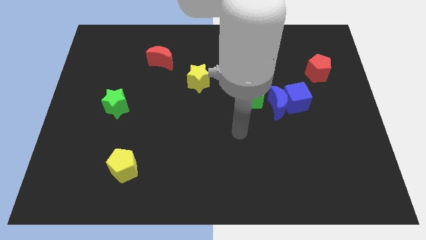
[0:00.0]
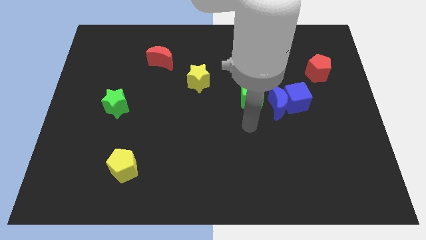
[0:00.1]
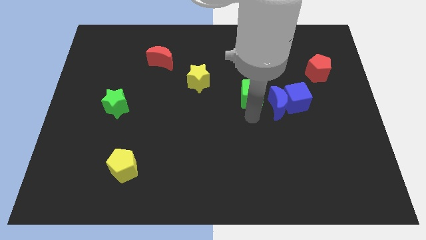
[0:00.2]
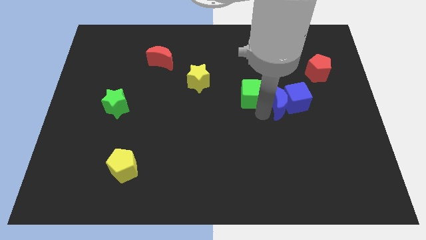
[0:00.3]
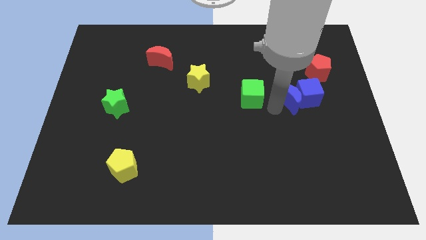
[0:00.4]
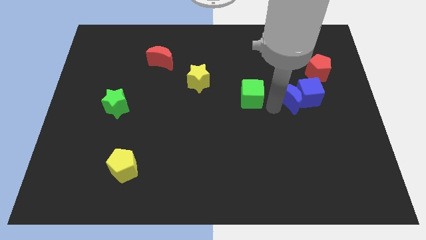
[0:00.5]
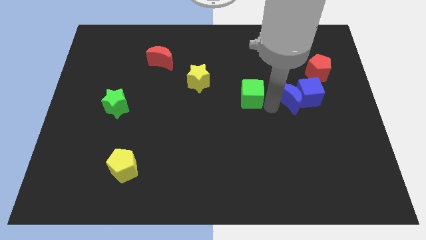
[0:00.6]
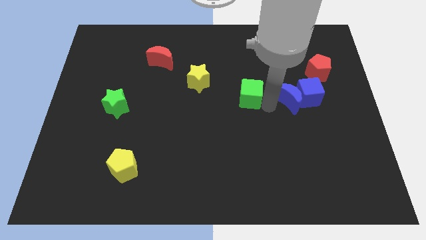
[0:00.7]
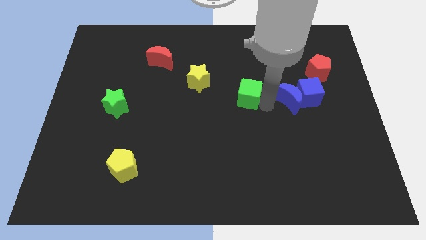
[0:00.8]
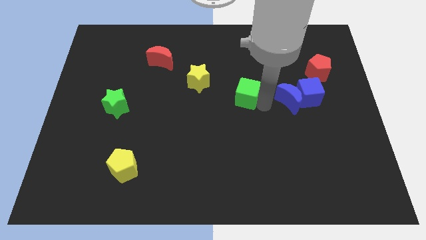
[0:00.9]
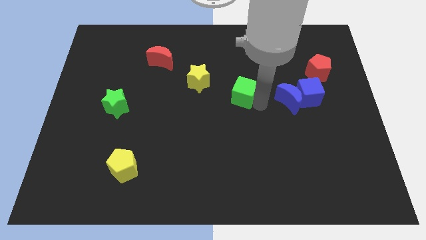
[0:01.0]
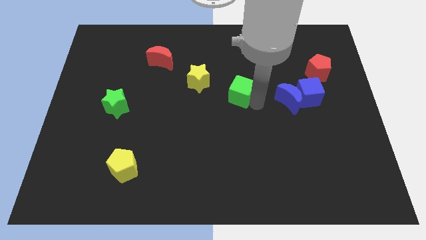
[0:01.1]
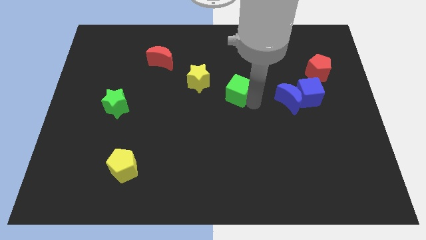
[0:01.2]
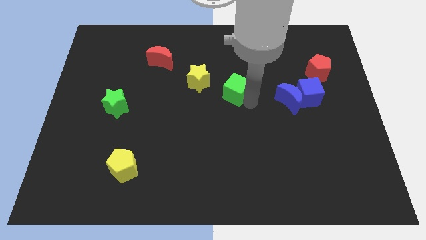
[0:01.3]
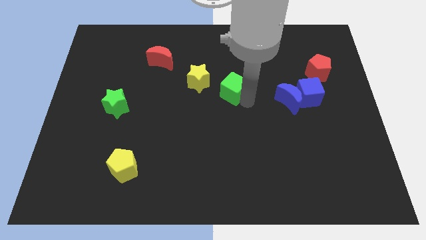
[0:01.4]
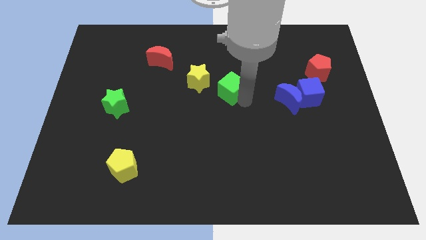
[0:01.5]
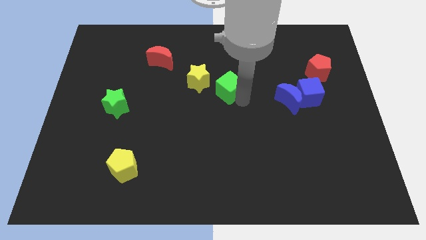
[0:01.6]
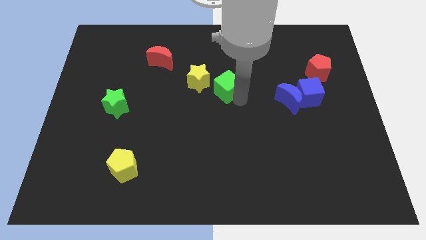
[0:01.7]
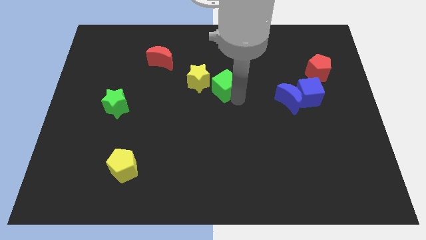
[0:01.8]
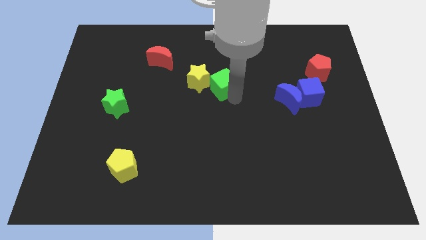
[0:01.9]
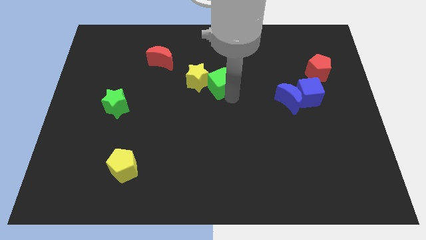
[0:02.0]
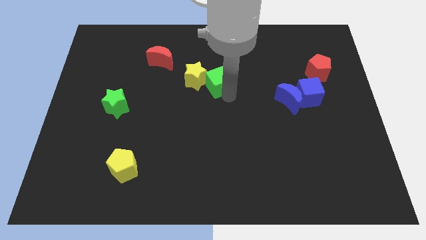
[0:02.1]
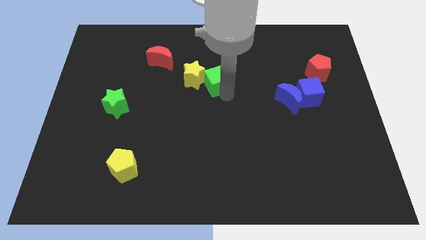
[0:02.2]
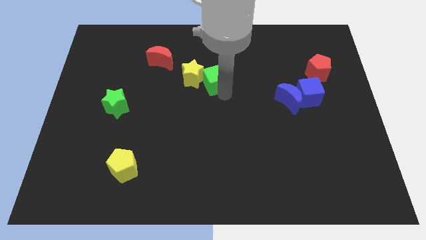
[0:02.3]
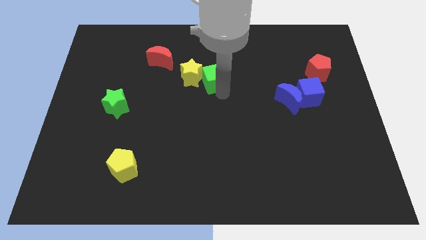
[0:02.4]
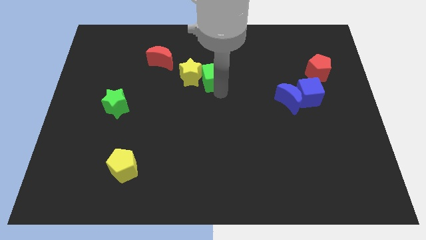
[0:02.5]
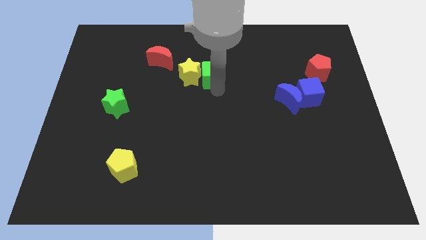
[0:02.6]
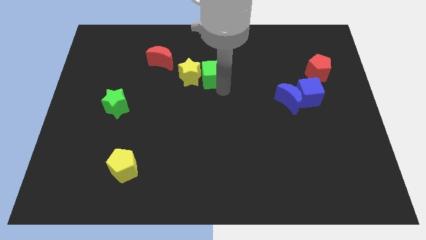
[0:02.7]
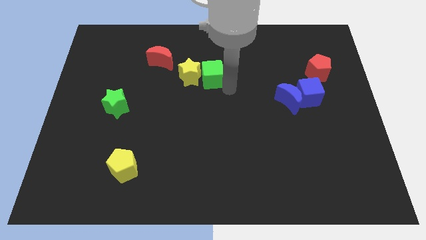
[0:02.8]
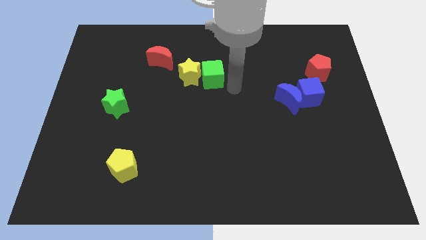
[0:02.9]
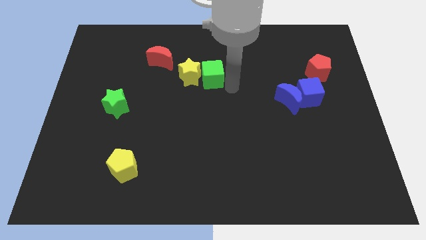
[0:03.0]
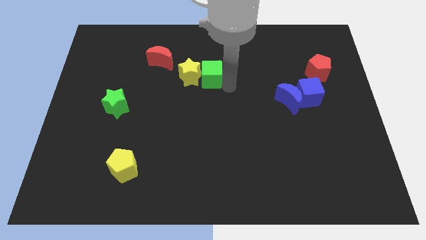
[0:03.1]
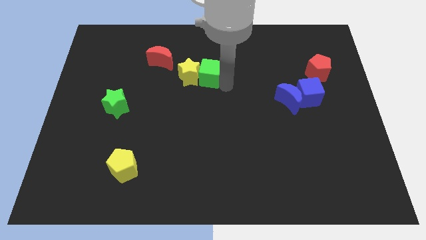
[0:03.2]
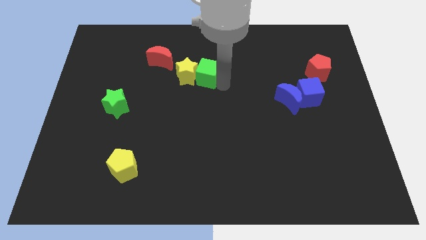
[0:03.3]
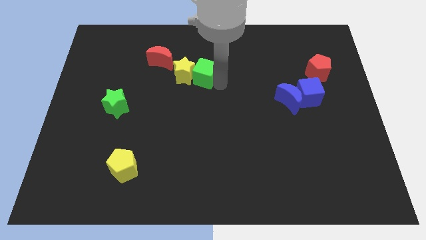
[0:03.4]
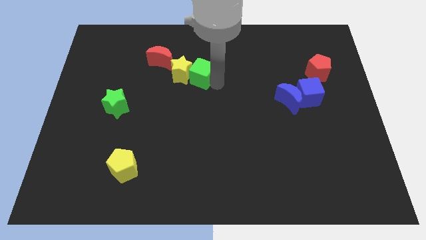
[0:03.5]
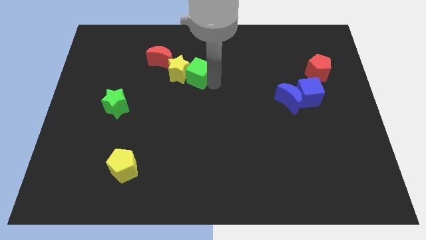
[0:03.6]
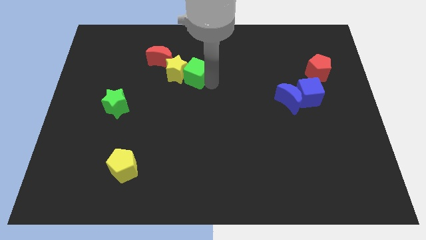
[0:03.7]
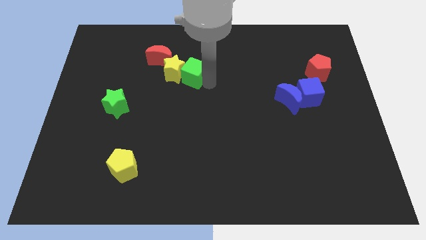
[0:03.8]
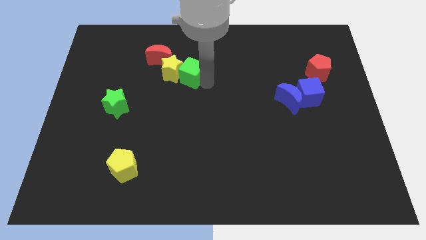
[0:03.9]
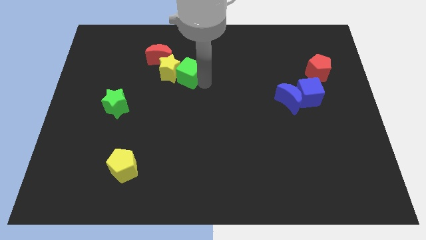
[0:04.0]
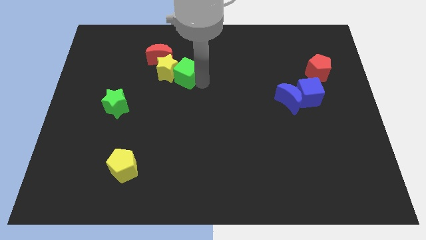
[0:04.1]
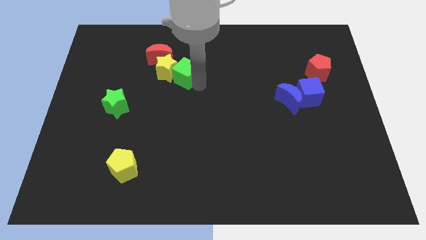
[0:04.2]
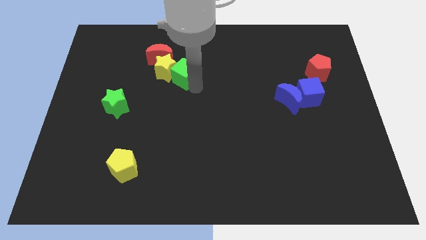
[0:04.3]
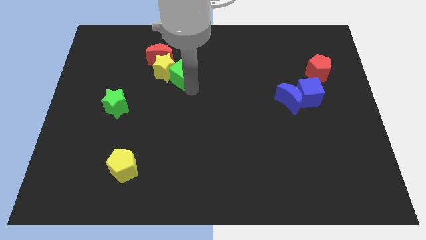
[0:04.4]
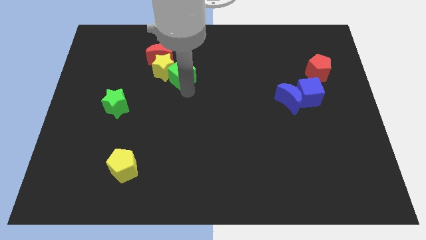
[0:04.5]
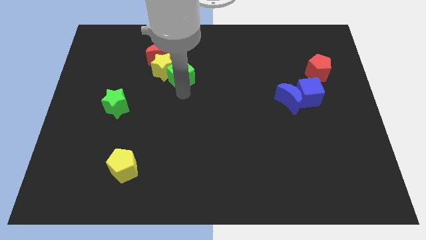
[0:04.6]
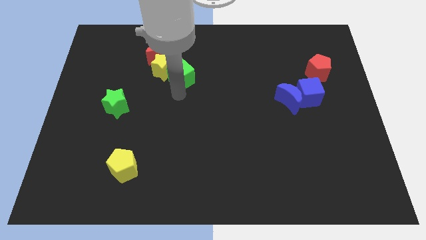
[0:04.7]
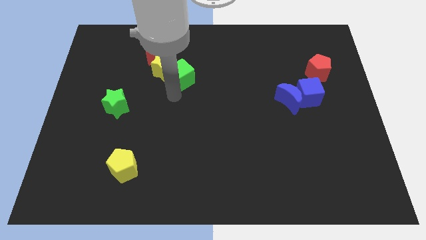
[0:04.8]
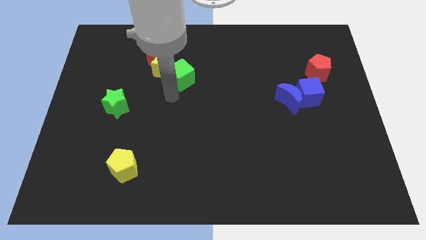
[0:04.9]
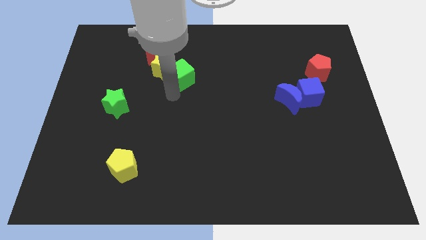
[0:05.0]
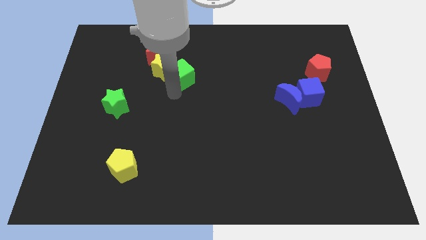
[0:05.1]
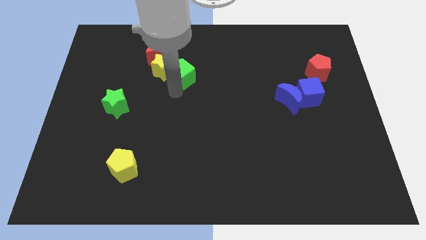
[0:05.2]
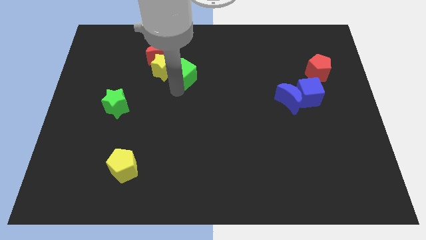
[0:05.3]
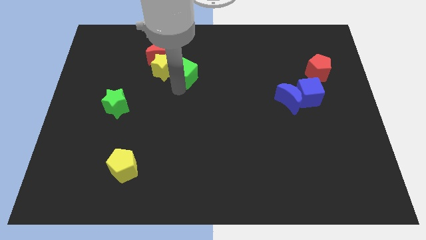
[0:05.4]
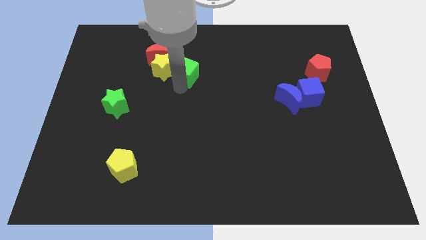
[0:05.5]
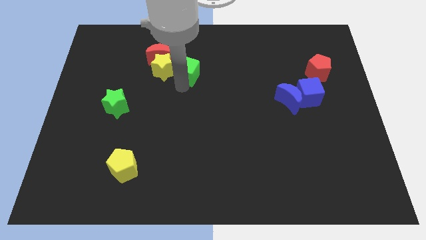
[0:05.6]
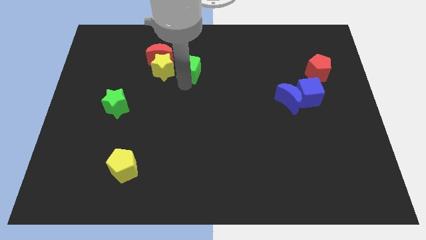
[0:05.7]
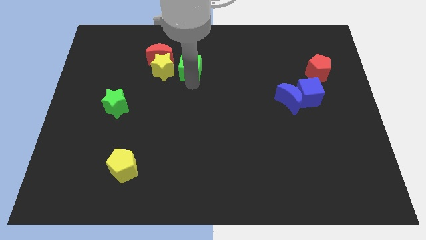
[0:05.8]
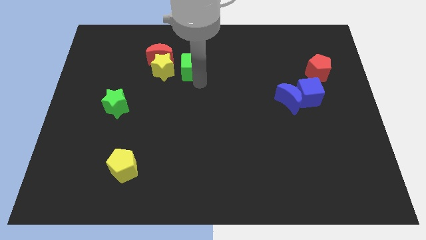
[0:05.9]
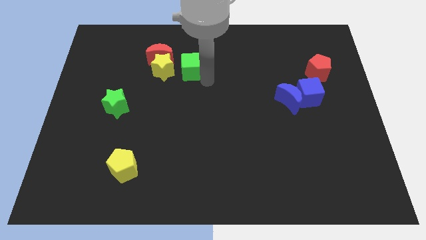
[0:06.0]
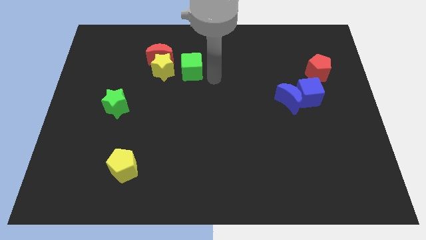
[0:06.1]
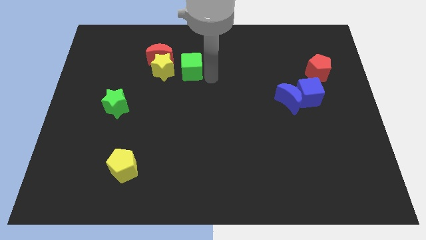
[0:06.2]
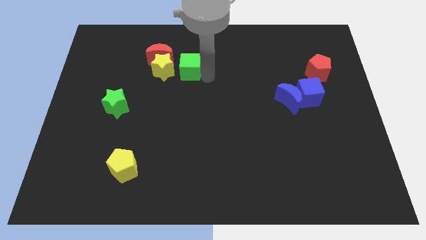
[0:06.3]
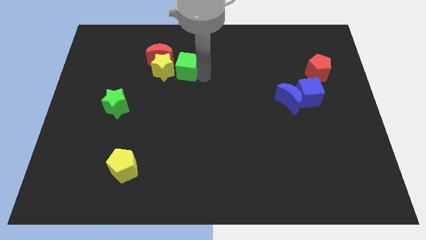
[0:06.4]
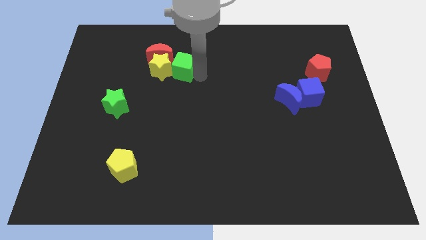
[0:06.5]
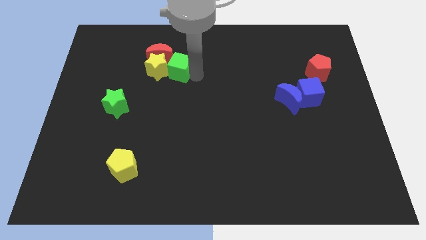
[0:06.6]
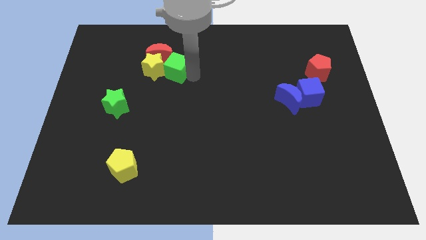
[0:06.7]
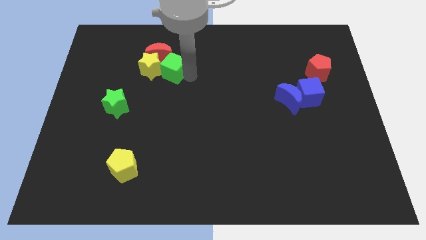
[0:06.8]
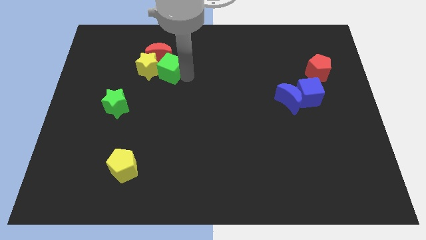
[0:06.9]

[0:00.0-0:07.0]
put the green cube to the red moon
